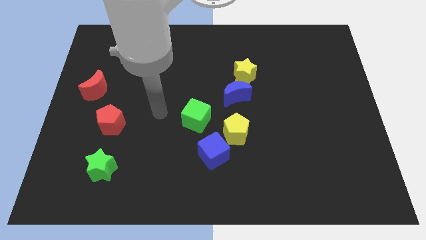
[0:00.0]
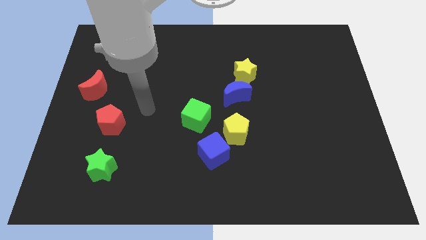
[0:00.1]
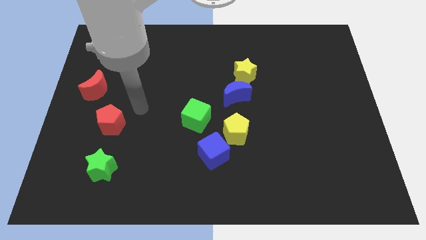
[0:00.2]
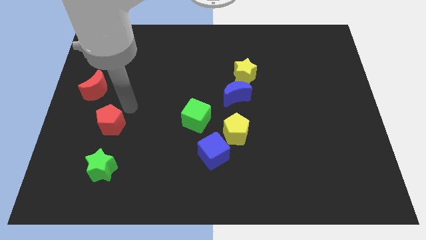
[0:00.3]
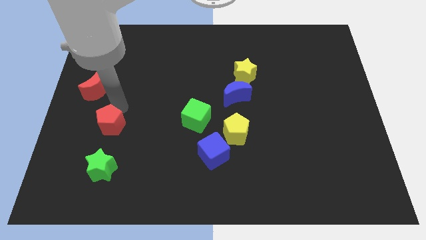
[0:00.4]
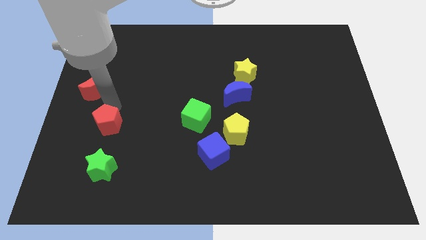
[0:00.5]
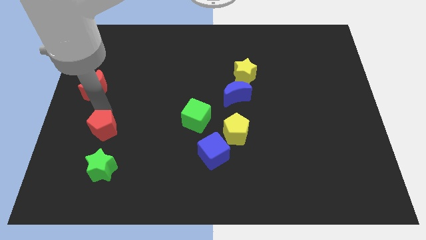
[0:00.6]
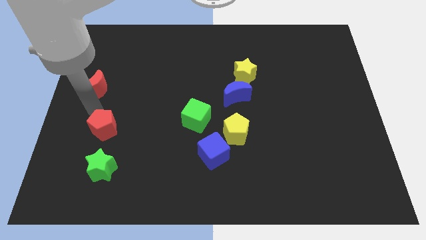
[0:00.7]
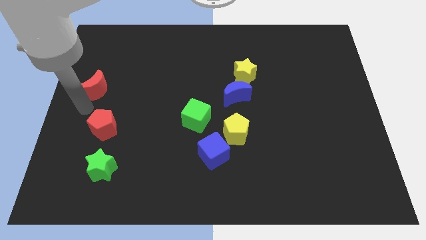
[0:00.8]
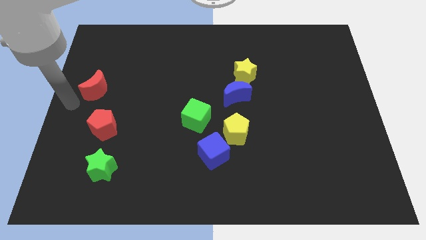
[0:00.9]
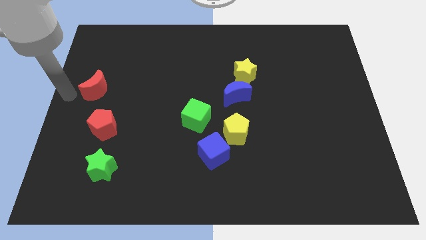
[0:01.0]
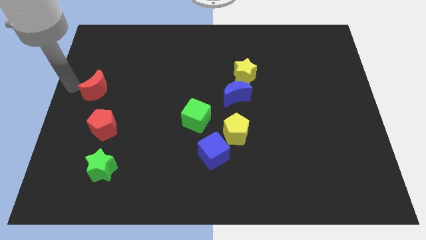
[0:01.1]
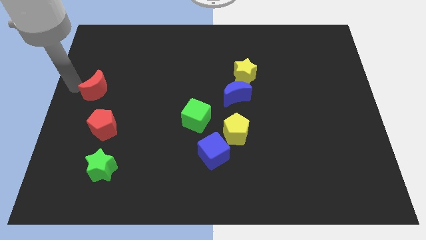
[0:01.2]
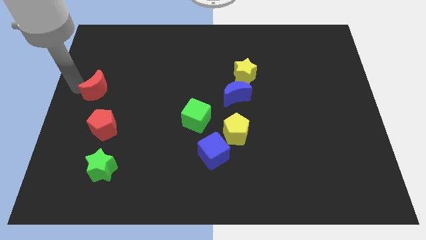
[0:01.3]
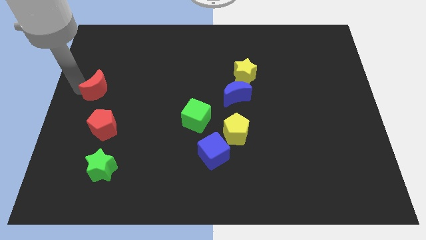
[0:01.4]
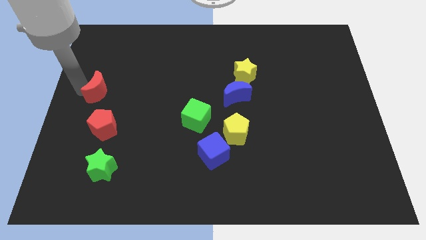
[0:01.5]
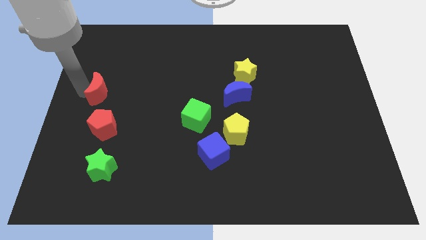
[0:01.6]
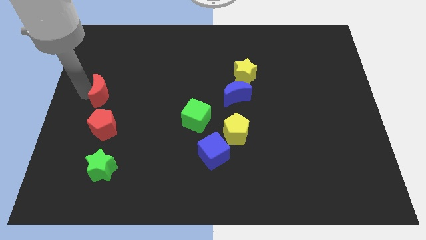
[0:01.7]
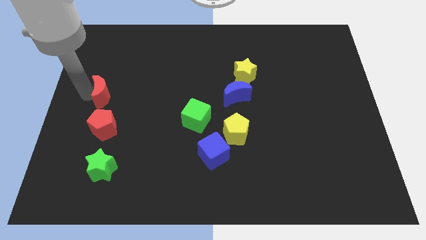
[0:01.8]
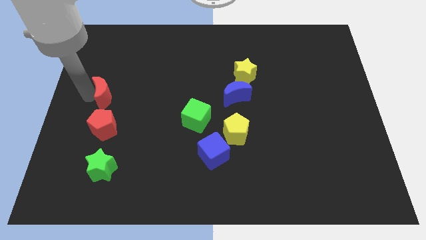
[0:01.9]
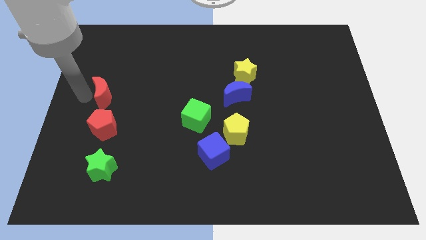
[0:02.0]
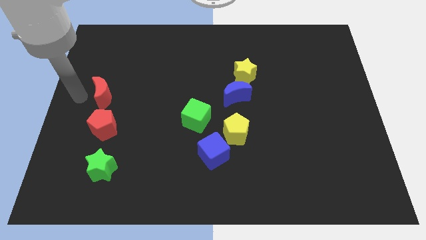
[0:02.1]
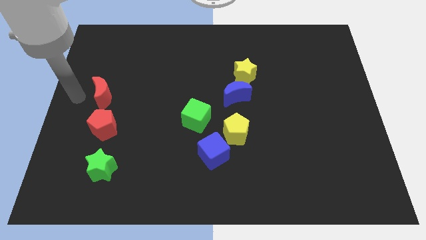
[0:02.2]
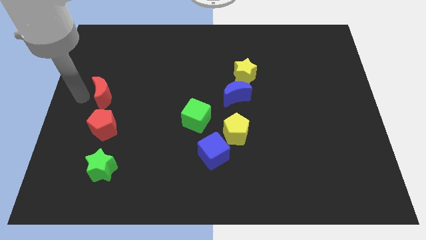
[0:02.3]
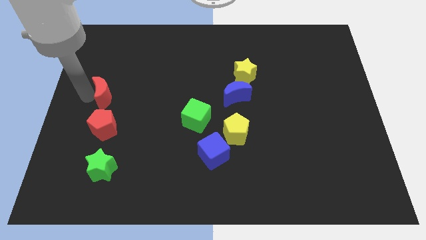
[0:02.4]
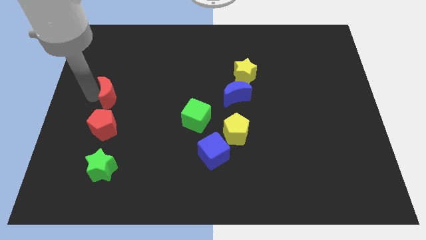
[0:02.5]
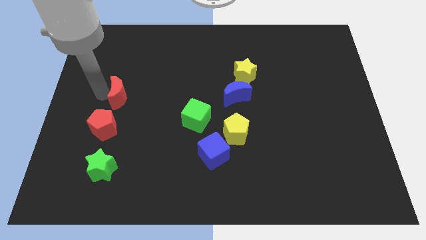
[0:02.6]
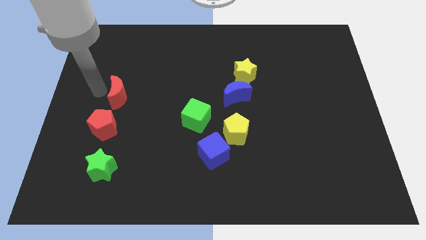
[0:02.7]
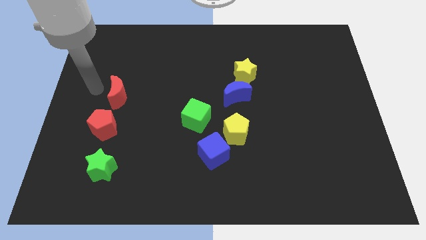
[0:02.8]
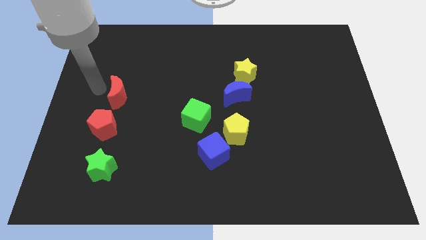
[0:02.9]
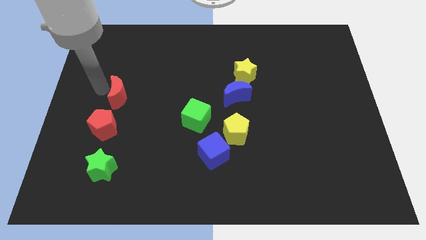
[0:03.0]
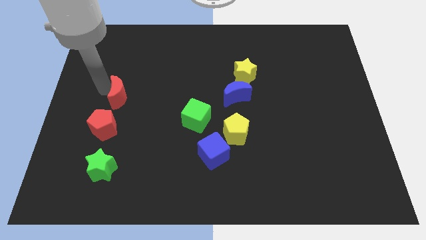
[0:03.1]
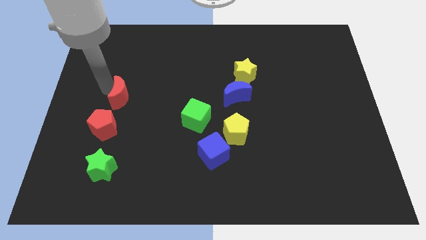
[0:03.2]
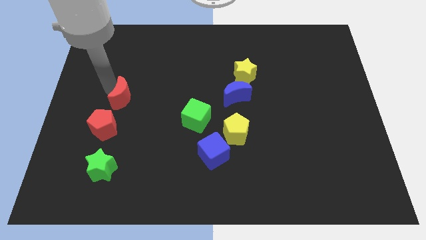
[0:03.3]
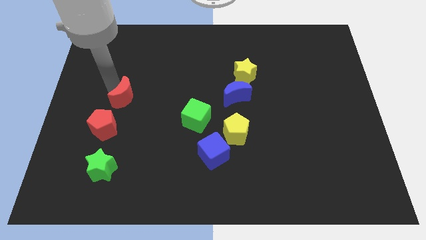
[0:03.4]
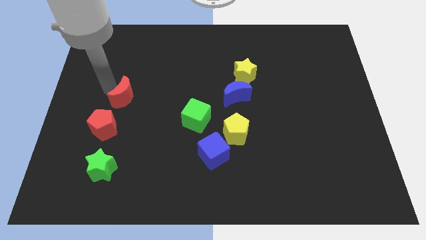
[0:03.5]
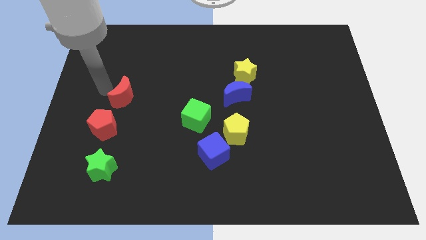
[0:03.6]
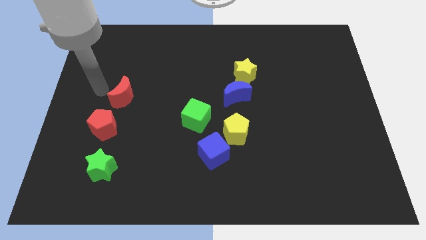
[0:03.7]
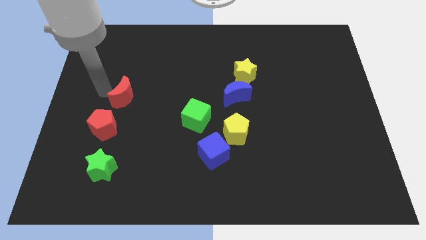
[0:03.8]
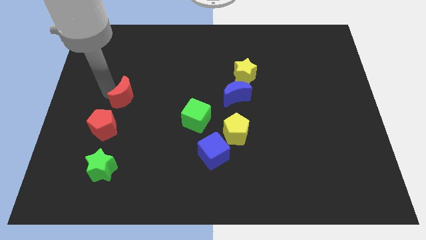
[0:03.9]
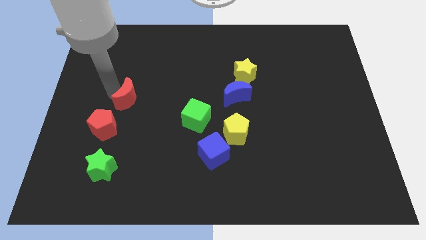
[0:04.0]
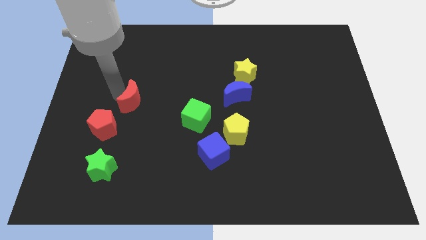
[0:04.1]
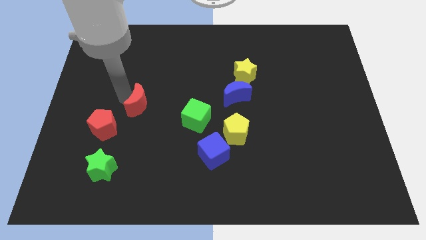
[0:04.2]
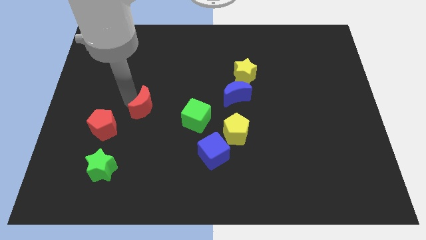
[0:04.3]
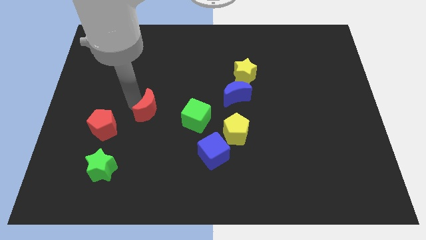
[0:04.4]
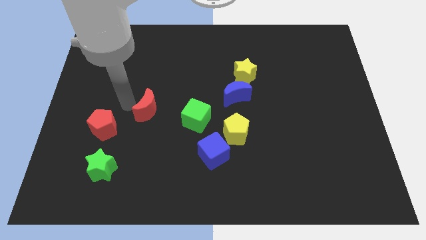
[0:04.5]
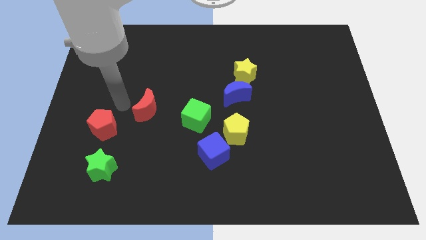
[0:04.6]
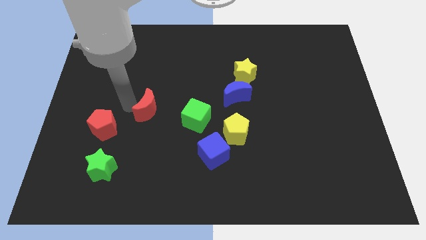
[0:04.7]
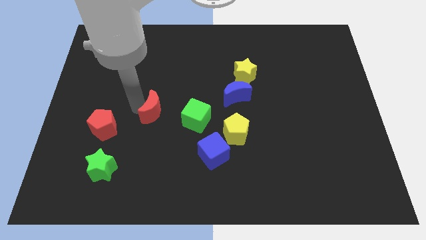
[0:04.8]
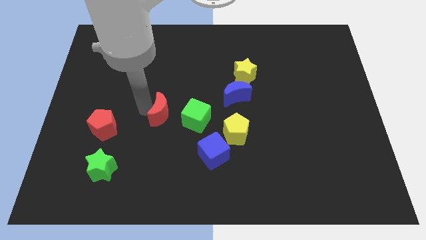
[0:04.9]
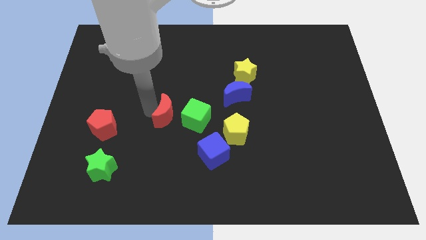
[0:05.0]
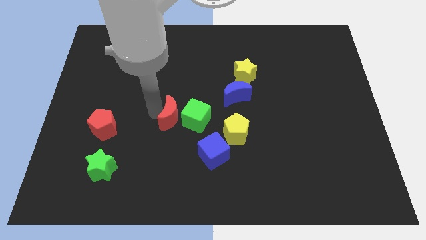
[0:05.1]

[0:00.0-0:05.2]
move the red moon close to the green cube

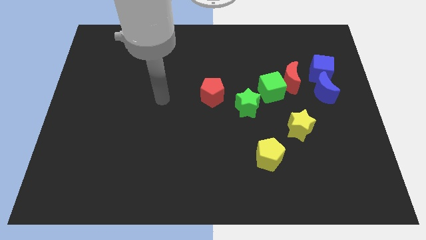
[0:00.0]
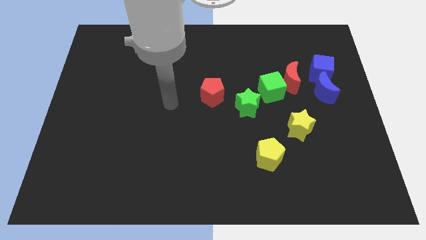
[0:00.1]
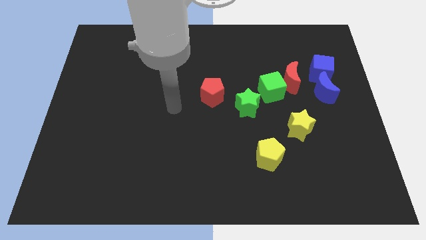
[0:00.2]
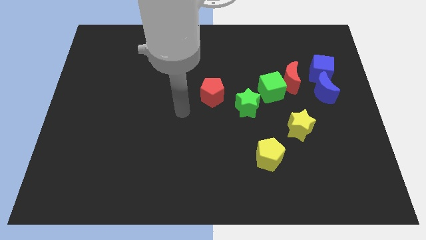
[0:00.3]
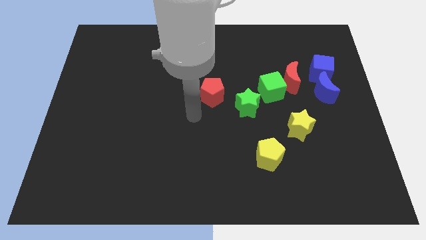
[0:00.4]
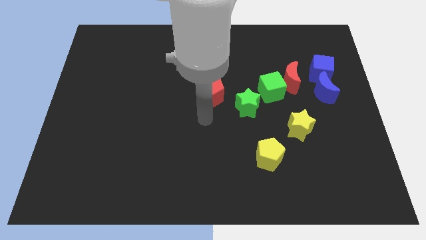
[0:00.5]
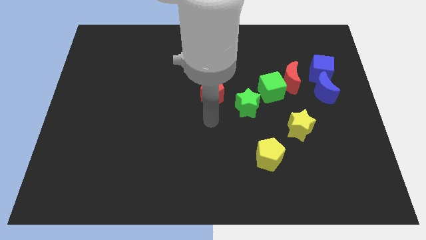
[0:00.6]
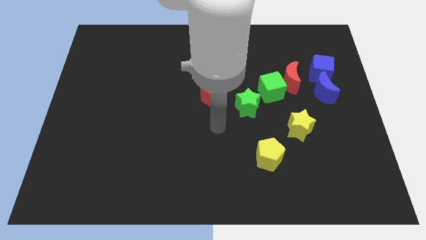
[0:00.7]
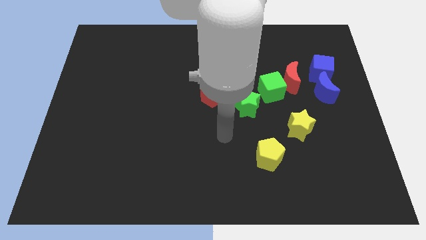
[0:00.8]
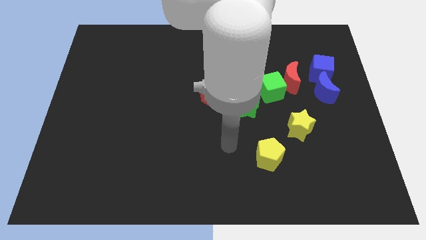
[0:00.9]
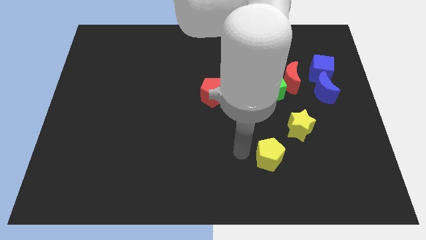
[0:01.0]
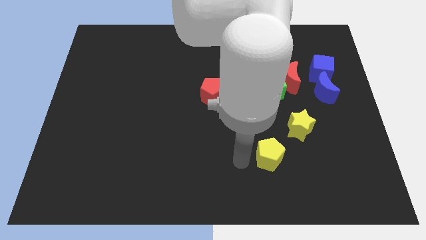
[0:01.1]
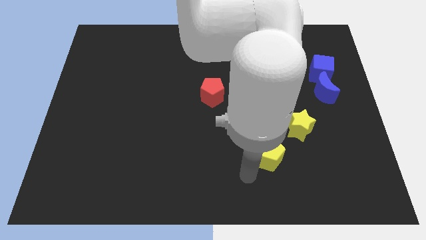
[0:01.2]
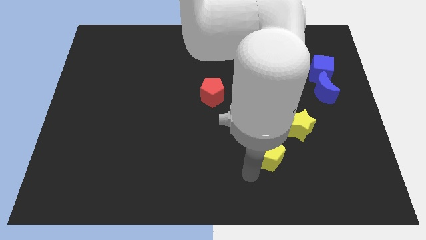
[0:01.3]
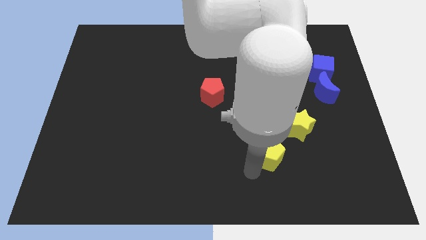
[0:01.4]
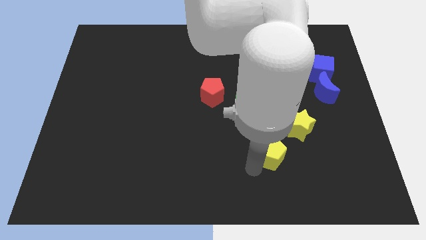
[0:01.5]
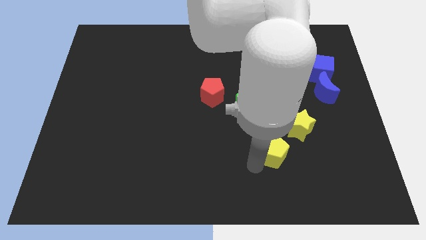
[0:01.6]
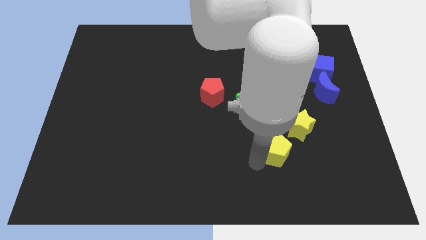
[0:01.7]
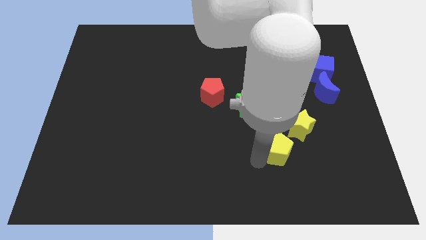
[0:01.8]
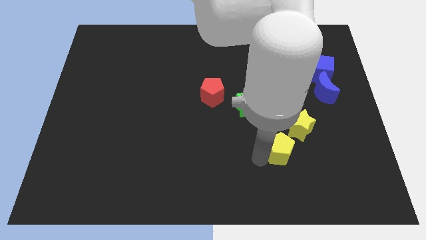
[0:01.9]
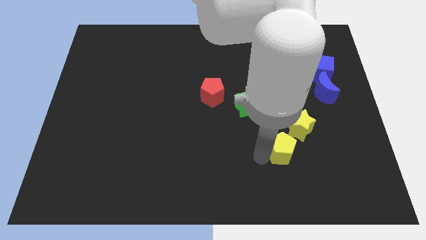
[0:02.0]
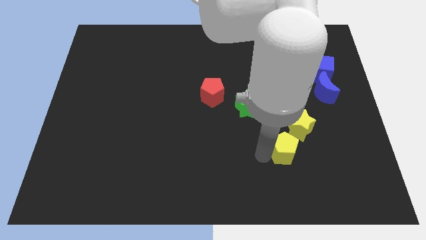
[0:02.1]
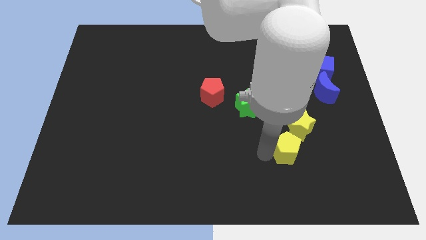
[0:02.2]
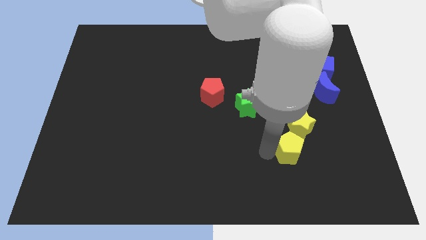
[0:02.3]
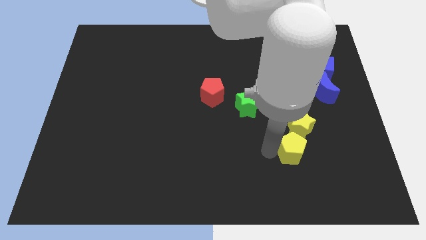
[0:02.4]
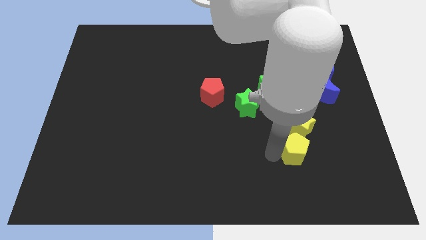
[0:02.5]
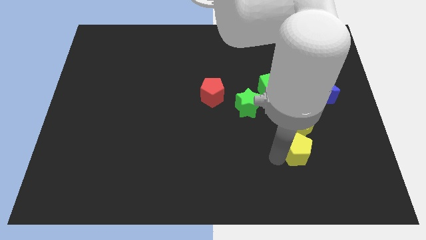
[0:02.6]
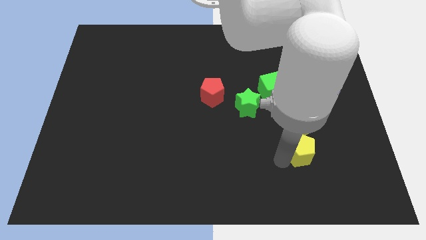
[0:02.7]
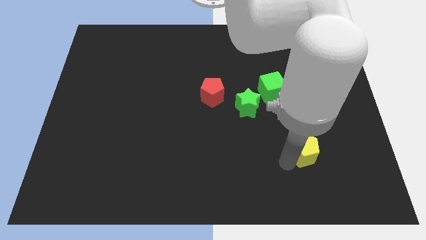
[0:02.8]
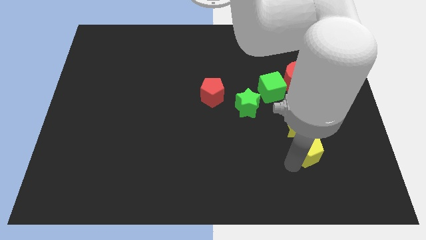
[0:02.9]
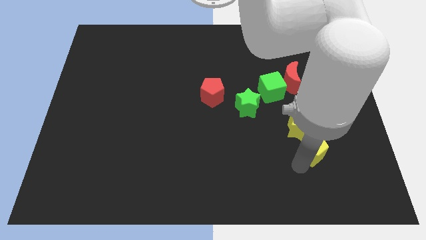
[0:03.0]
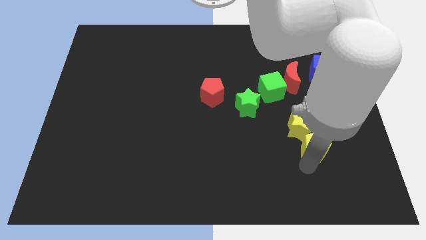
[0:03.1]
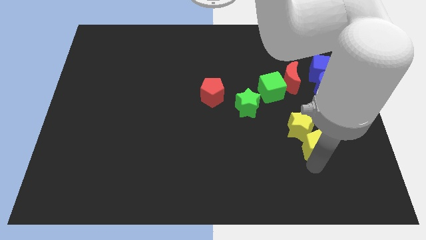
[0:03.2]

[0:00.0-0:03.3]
put the yellow pentagon next to the yellow star
